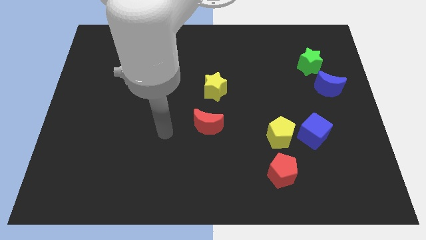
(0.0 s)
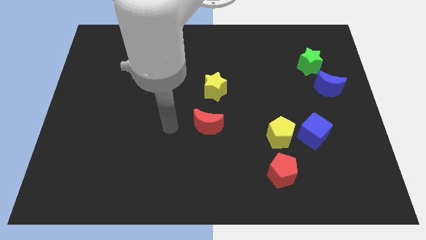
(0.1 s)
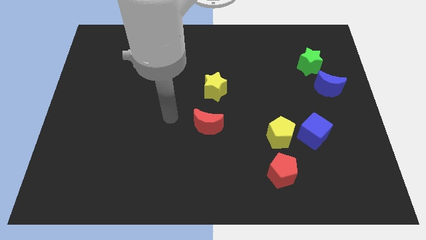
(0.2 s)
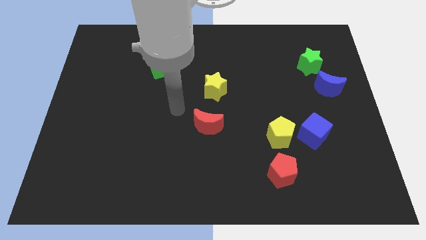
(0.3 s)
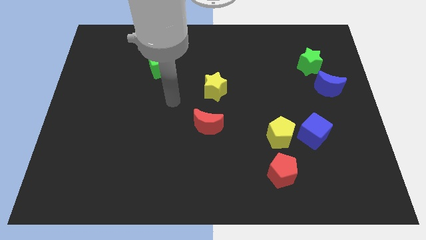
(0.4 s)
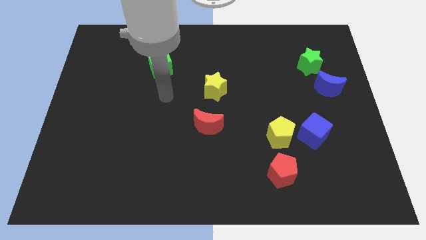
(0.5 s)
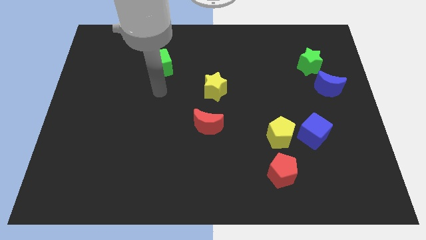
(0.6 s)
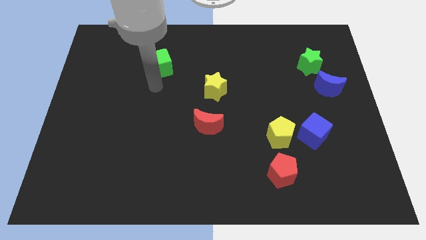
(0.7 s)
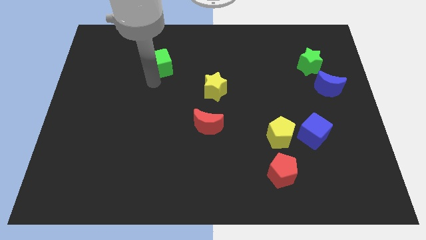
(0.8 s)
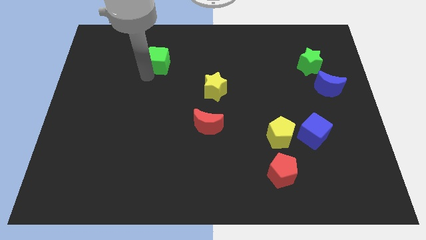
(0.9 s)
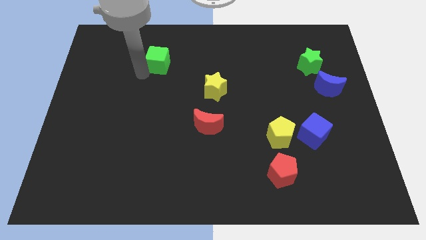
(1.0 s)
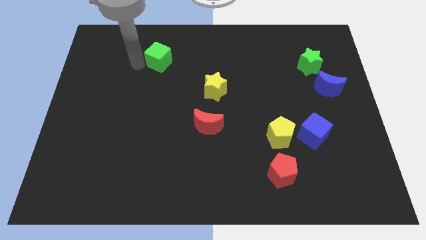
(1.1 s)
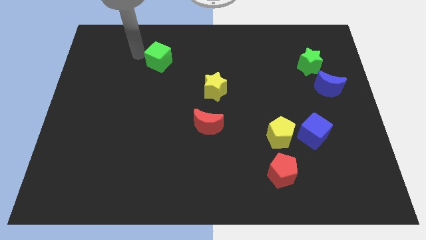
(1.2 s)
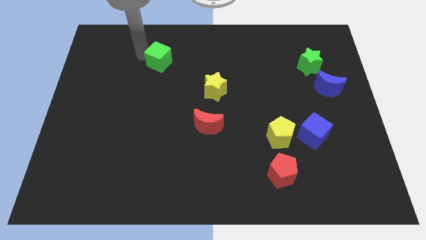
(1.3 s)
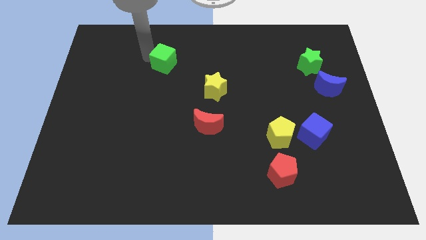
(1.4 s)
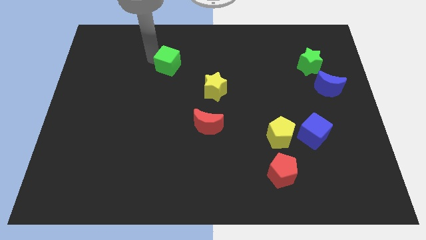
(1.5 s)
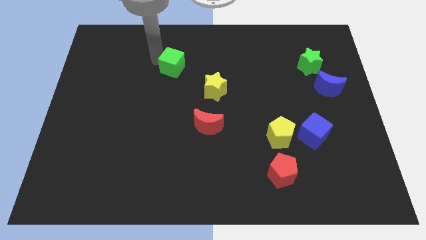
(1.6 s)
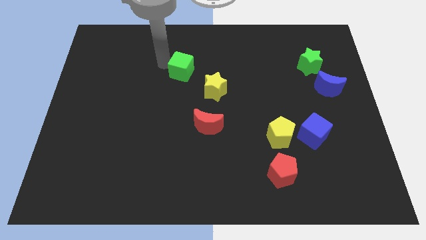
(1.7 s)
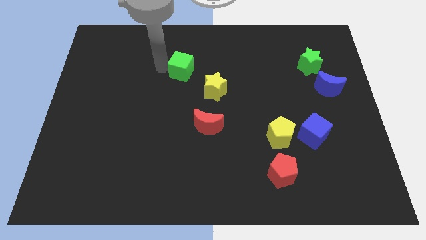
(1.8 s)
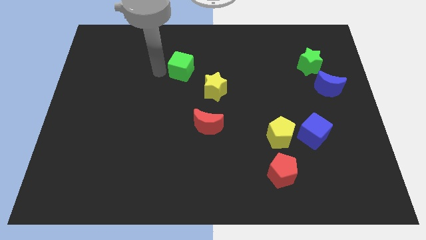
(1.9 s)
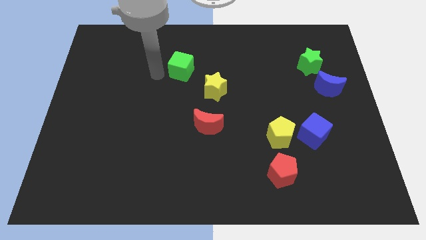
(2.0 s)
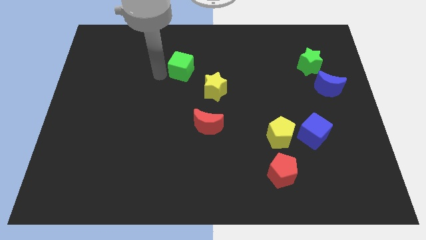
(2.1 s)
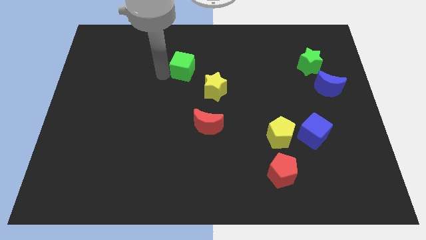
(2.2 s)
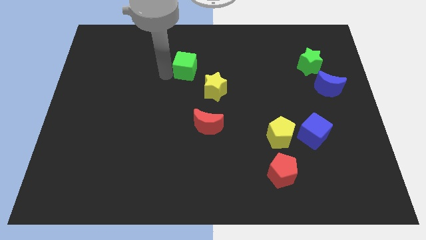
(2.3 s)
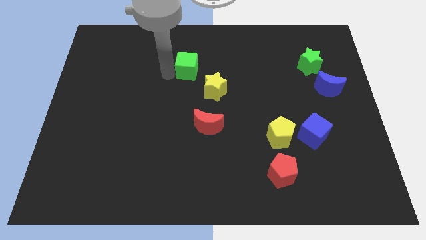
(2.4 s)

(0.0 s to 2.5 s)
slightly move the green cube right

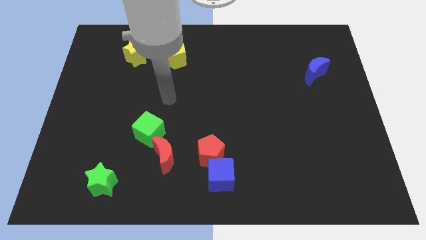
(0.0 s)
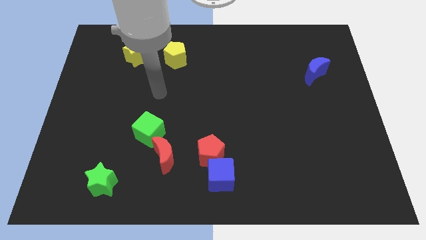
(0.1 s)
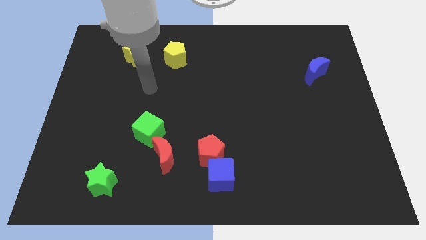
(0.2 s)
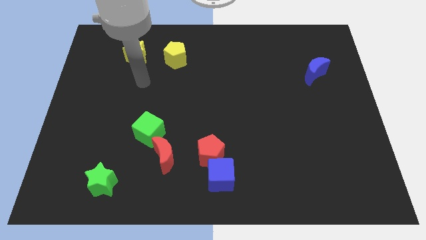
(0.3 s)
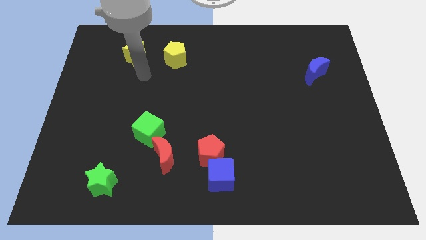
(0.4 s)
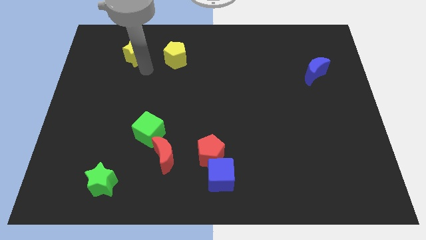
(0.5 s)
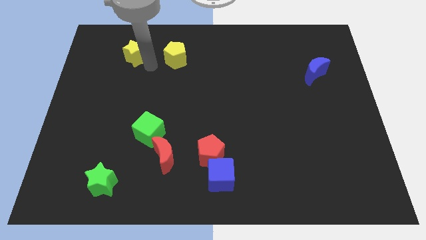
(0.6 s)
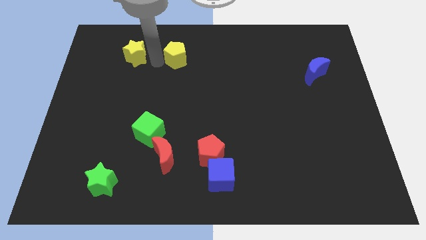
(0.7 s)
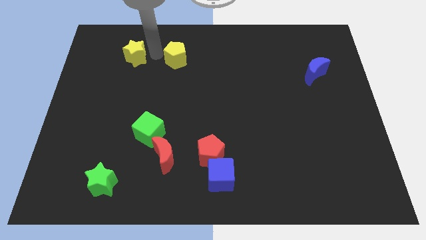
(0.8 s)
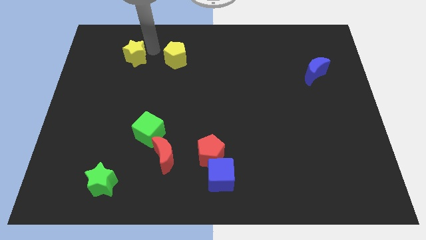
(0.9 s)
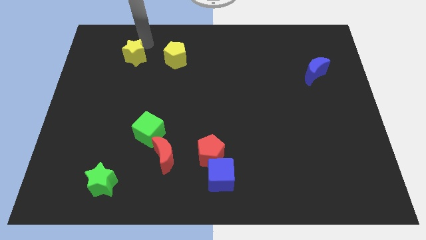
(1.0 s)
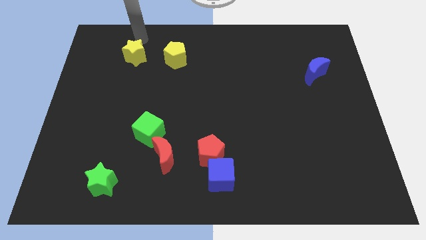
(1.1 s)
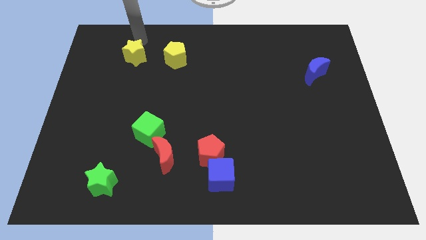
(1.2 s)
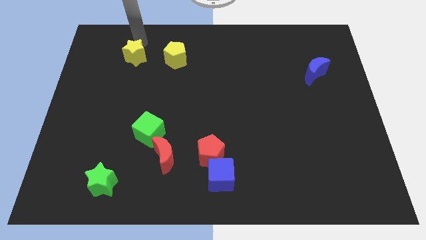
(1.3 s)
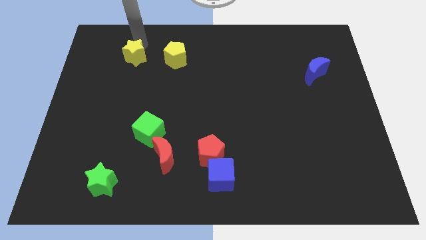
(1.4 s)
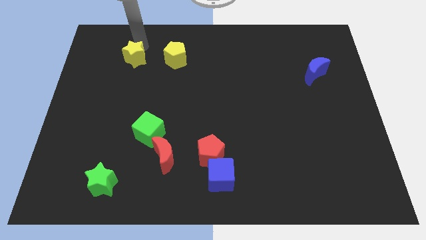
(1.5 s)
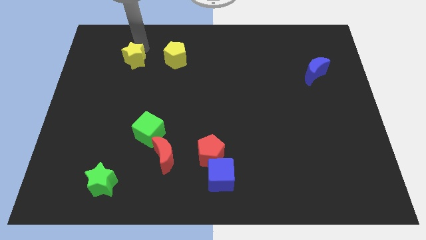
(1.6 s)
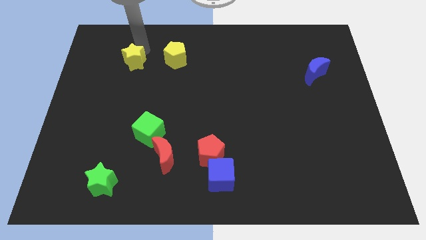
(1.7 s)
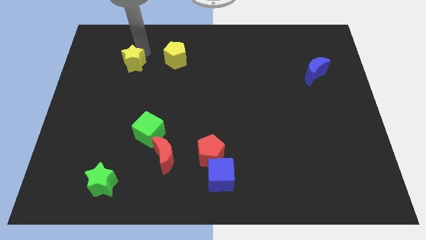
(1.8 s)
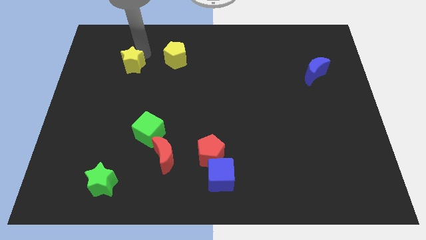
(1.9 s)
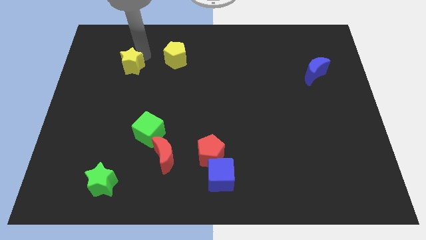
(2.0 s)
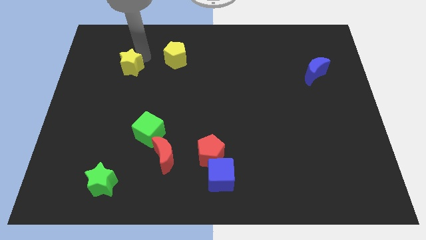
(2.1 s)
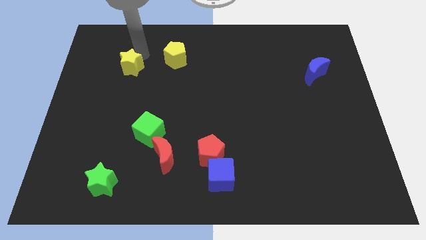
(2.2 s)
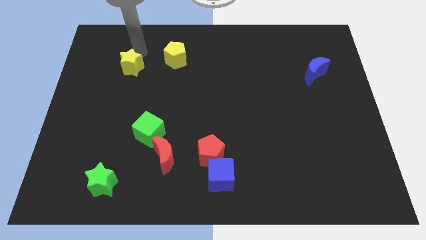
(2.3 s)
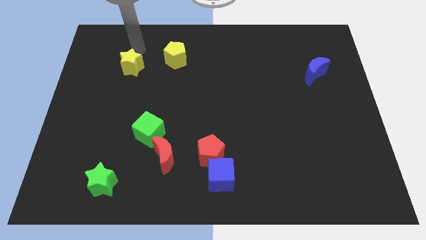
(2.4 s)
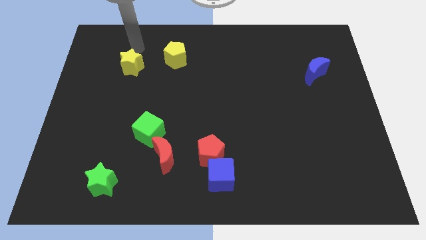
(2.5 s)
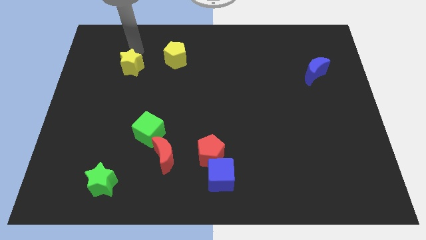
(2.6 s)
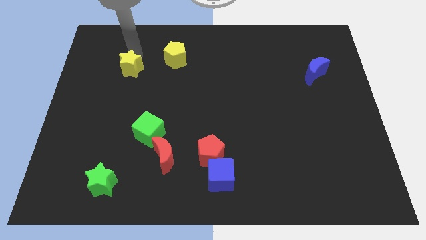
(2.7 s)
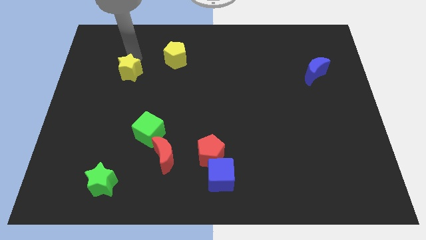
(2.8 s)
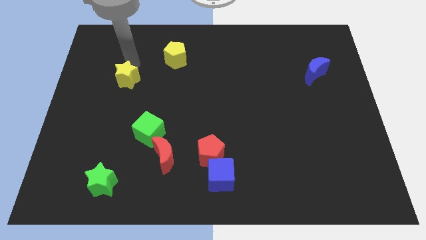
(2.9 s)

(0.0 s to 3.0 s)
slide the yellow star down a bit

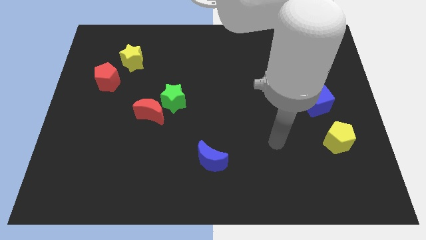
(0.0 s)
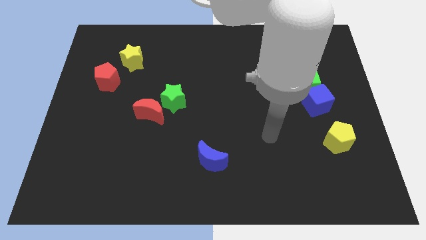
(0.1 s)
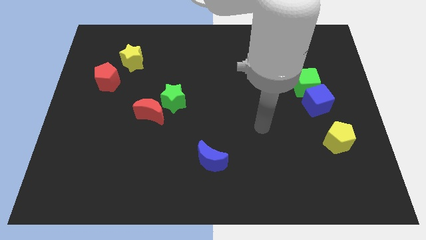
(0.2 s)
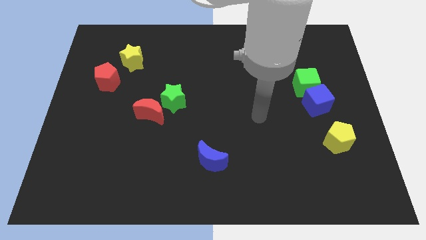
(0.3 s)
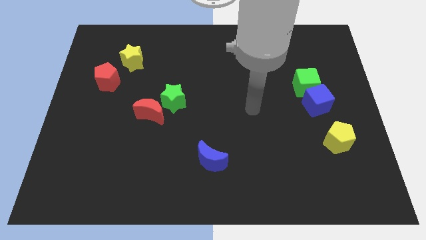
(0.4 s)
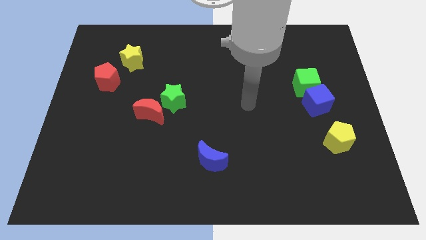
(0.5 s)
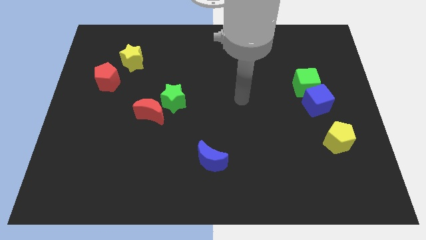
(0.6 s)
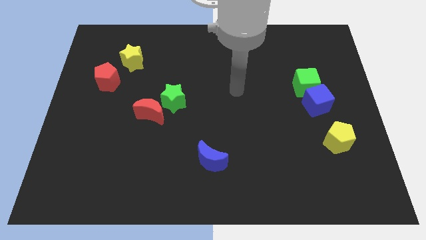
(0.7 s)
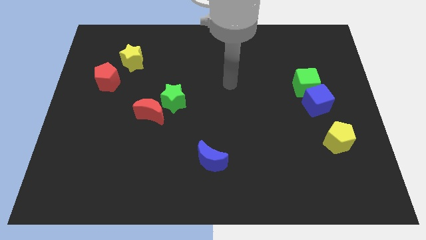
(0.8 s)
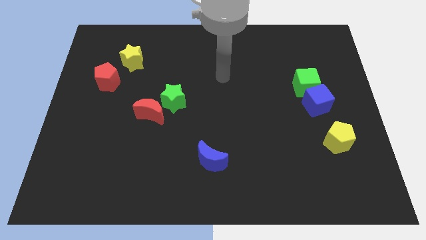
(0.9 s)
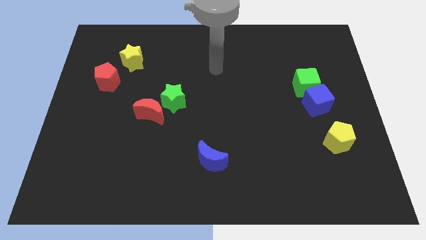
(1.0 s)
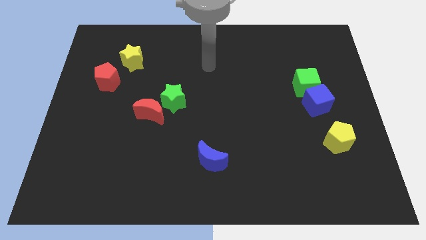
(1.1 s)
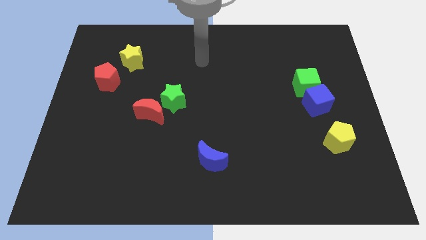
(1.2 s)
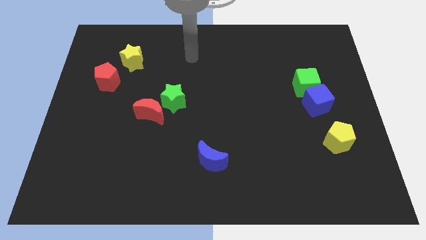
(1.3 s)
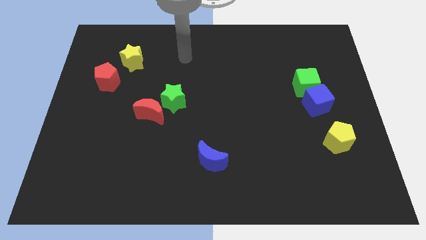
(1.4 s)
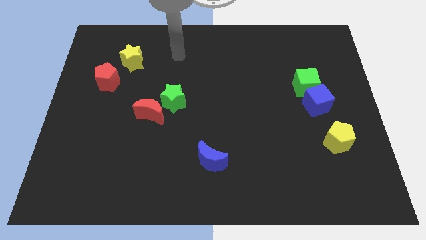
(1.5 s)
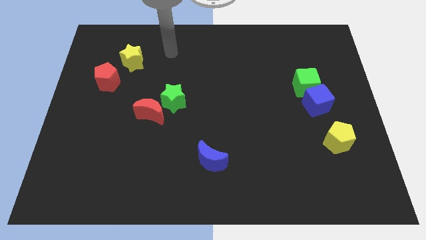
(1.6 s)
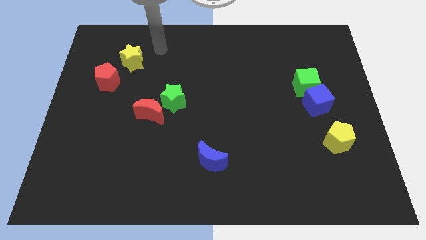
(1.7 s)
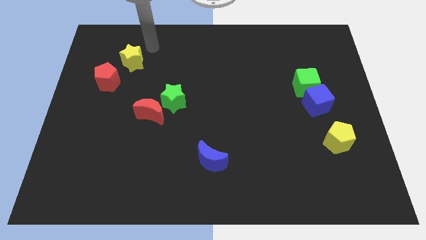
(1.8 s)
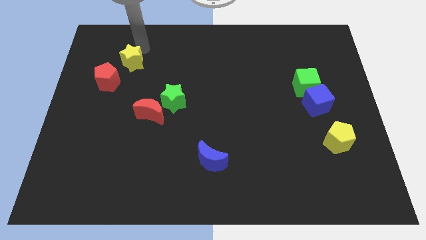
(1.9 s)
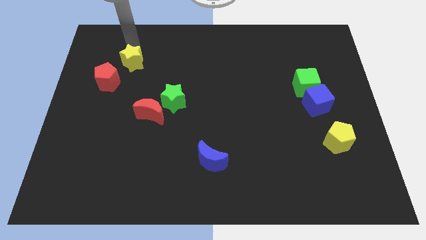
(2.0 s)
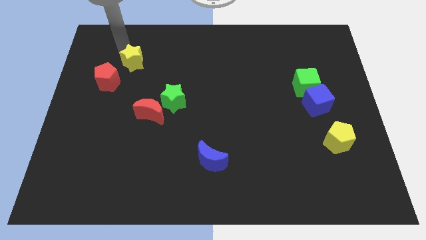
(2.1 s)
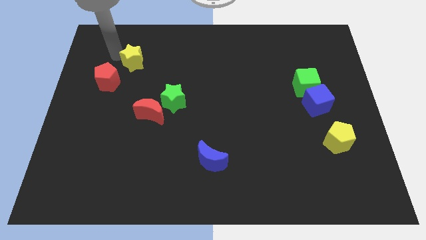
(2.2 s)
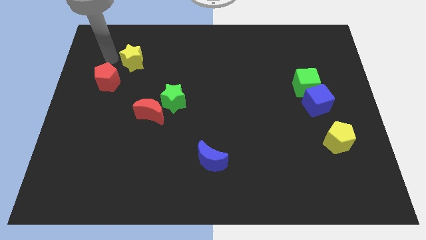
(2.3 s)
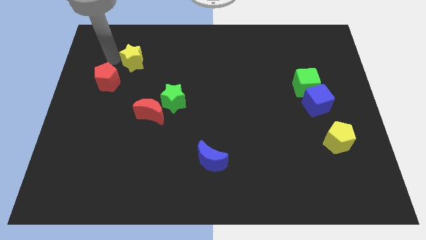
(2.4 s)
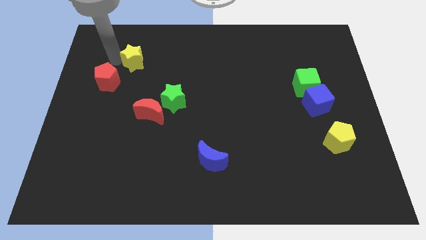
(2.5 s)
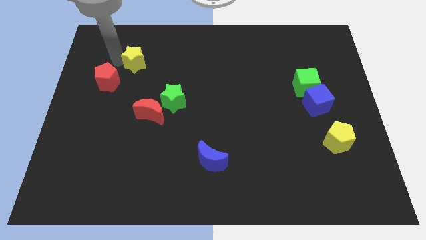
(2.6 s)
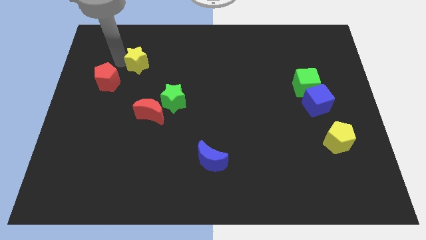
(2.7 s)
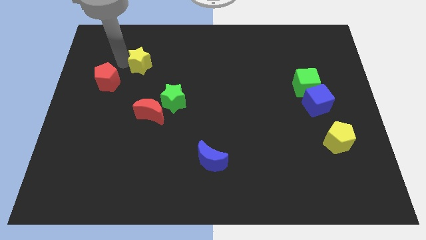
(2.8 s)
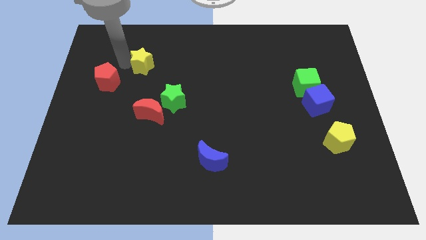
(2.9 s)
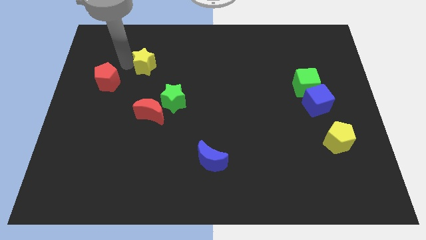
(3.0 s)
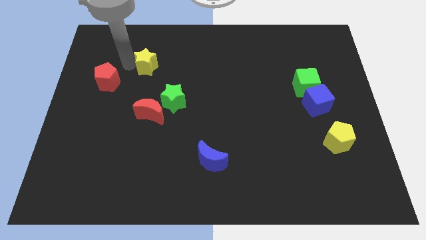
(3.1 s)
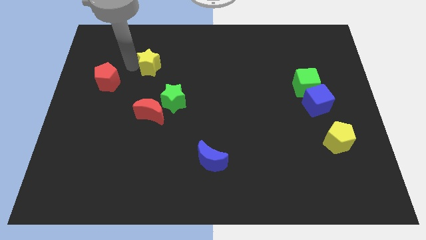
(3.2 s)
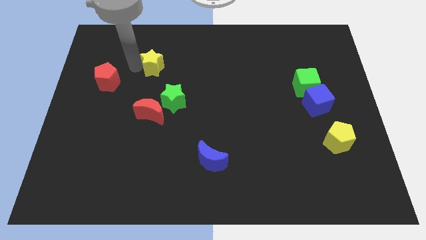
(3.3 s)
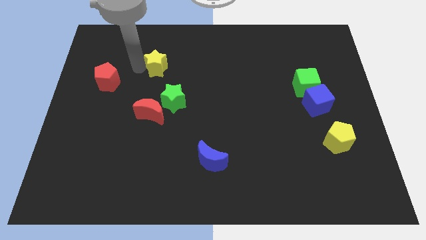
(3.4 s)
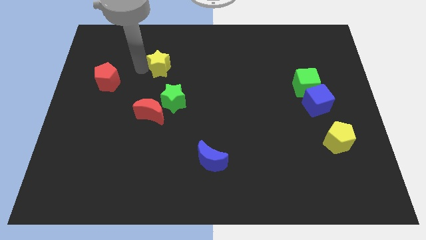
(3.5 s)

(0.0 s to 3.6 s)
push the yellow star a little to the right
